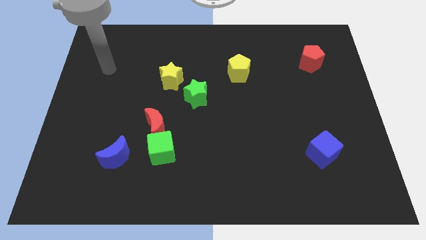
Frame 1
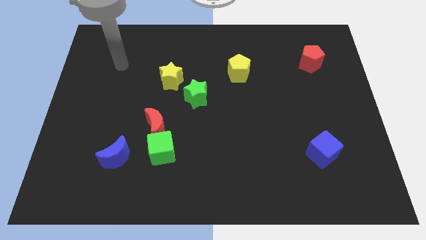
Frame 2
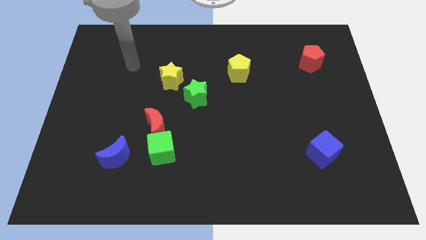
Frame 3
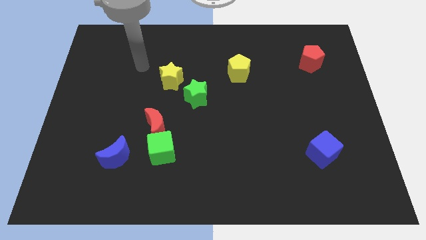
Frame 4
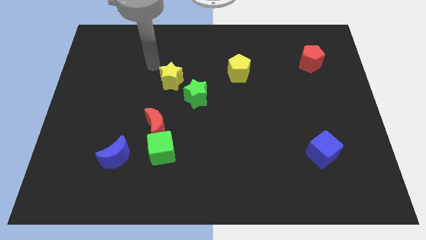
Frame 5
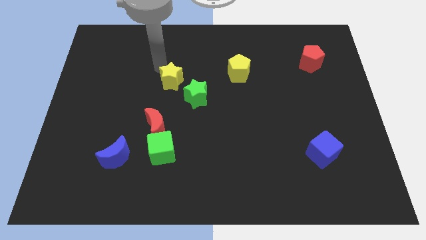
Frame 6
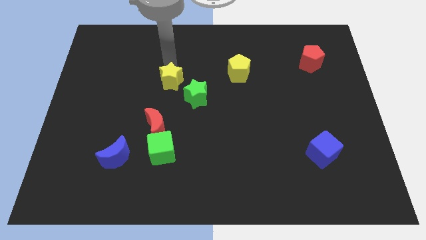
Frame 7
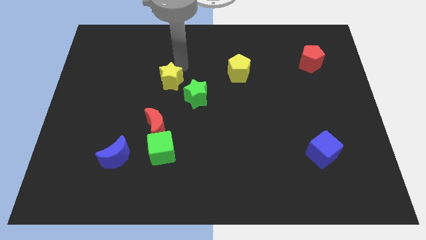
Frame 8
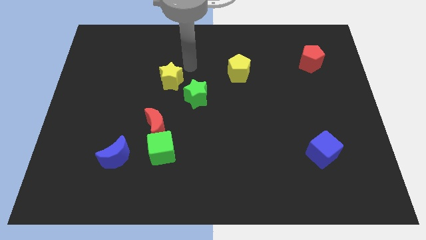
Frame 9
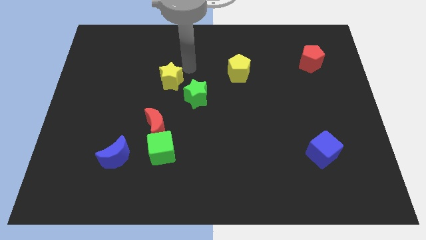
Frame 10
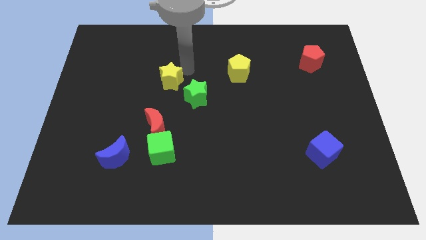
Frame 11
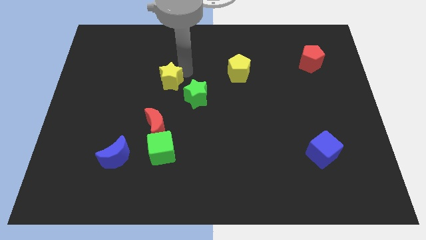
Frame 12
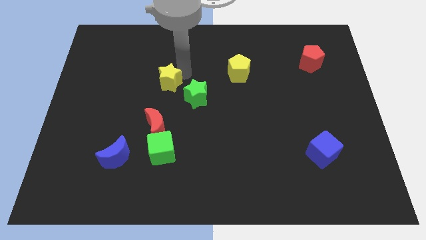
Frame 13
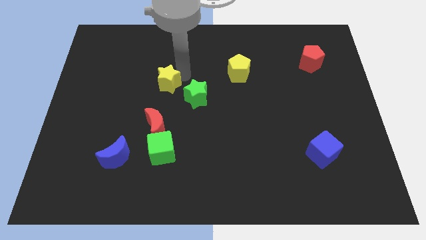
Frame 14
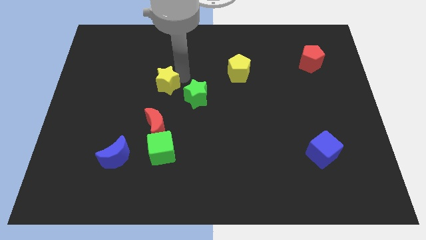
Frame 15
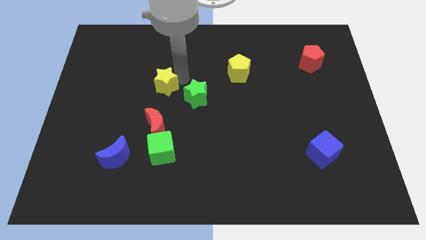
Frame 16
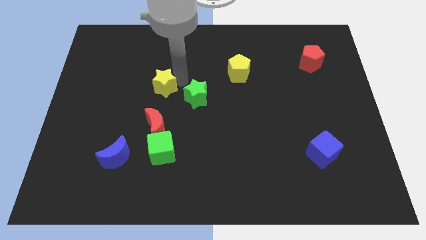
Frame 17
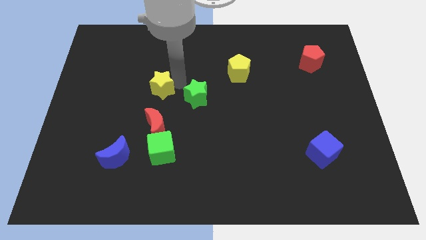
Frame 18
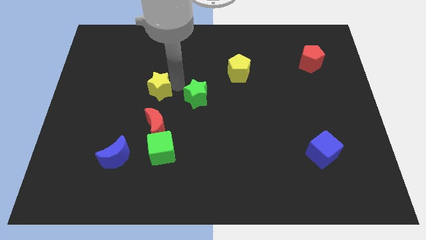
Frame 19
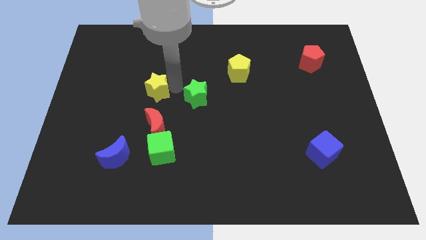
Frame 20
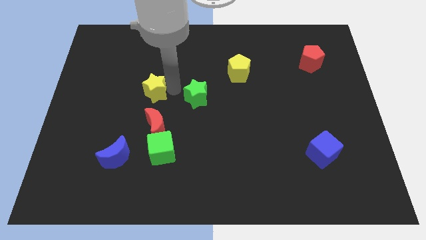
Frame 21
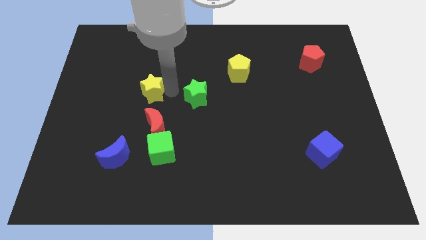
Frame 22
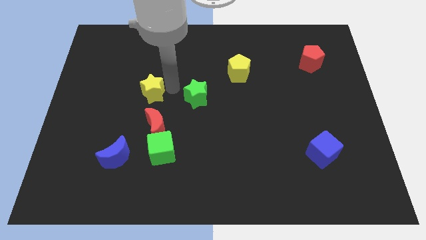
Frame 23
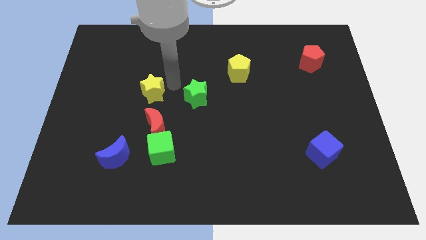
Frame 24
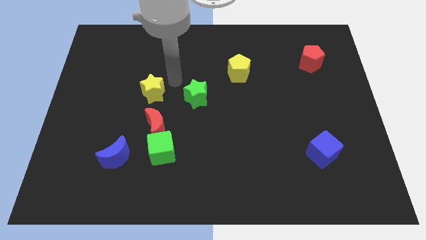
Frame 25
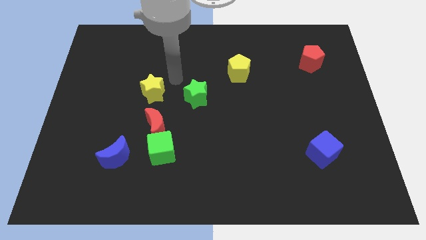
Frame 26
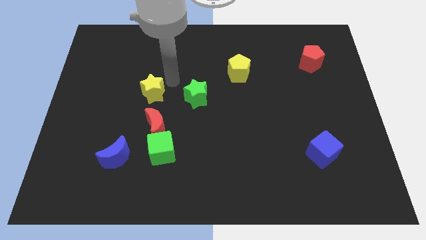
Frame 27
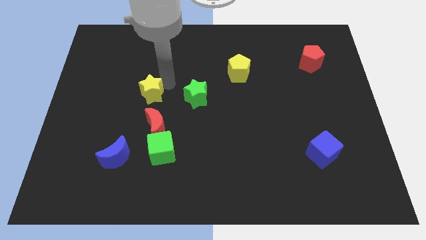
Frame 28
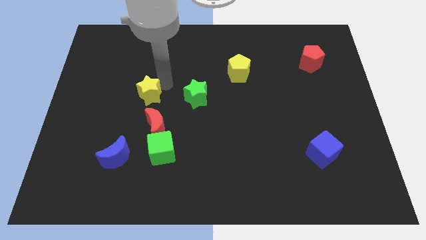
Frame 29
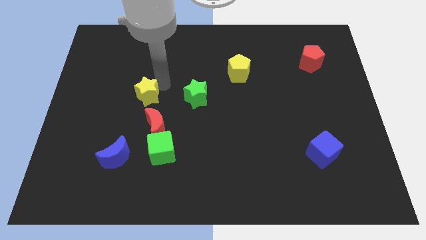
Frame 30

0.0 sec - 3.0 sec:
move the yellow star slightly downwards and then to the left

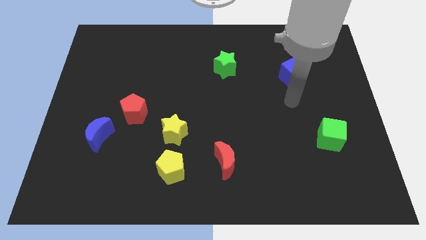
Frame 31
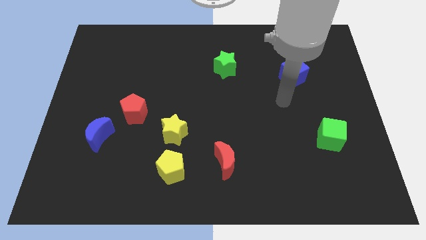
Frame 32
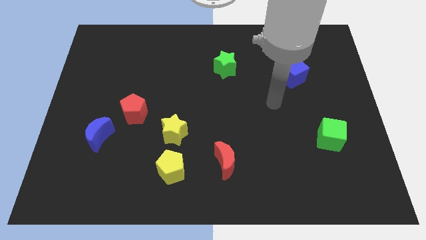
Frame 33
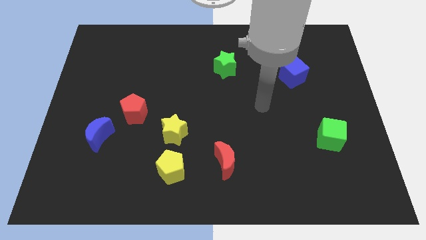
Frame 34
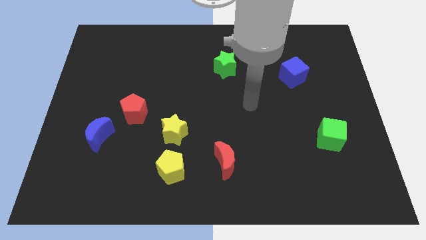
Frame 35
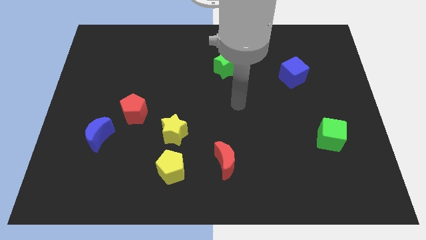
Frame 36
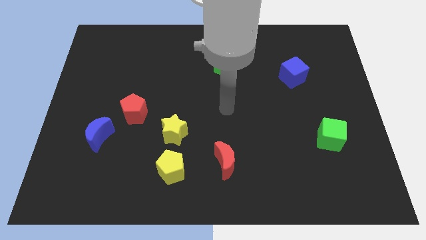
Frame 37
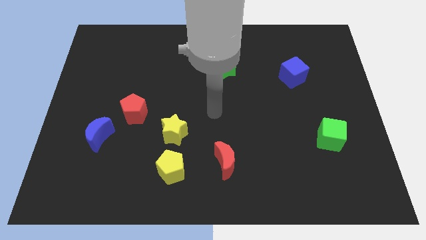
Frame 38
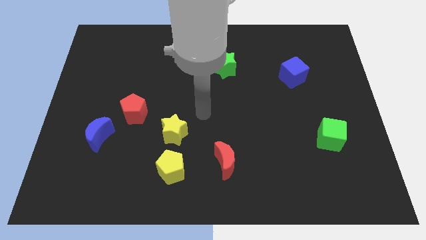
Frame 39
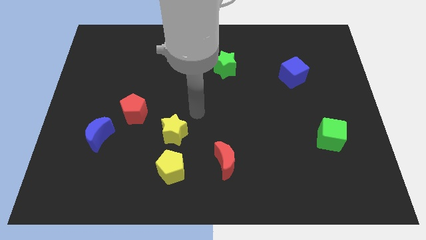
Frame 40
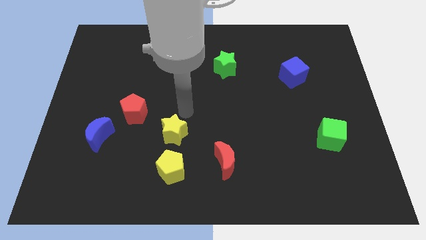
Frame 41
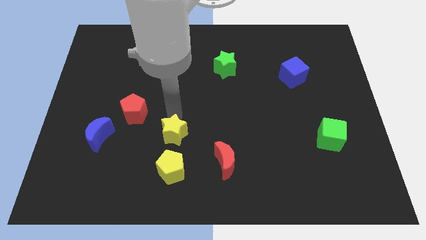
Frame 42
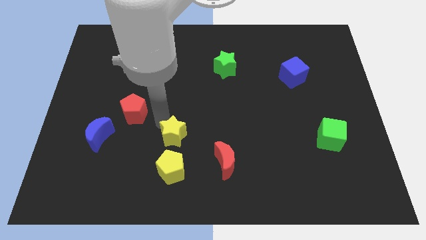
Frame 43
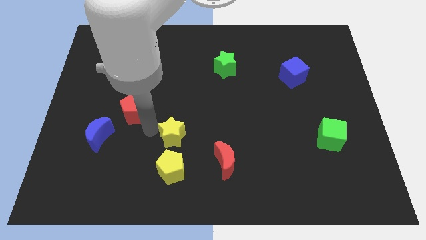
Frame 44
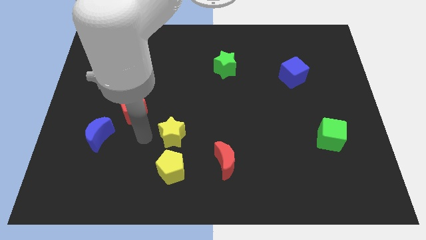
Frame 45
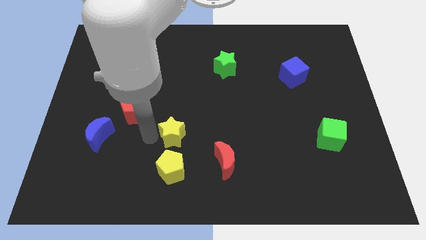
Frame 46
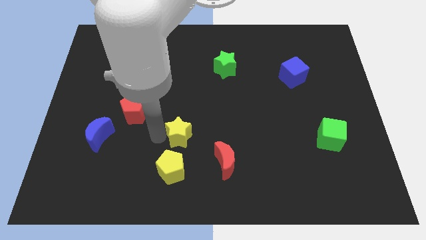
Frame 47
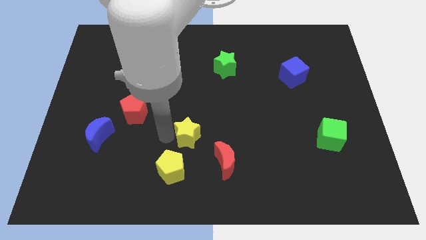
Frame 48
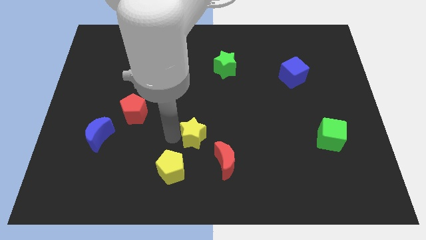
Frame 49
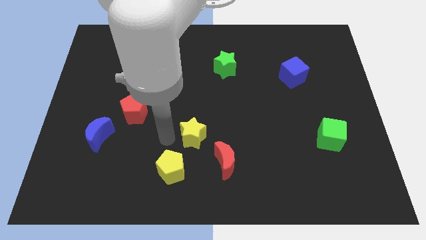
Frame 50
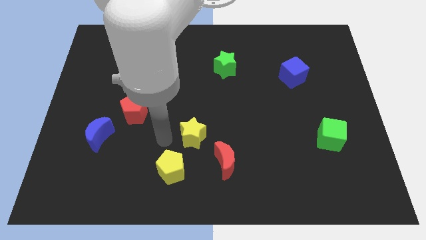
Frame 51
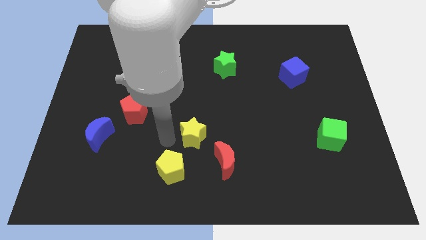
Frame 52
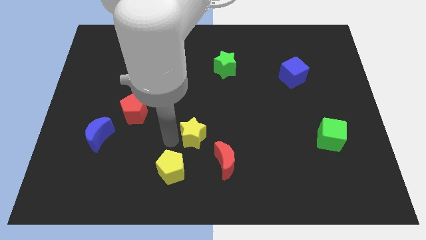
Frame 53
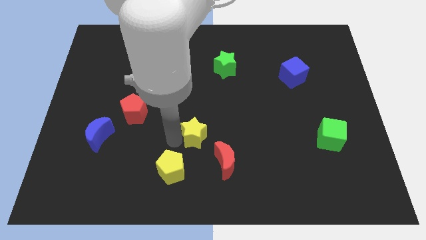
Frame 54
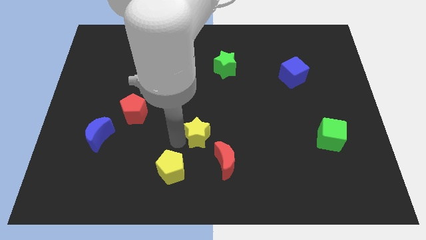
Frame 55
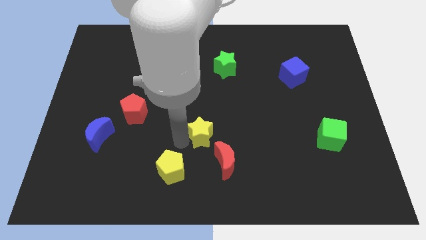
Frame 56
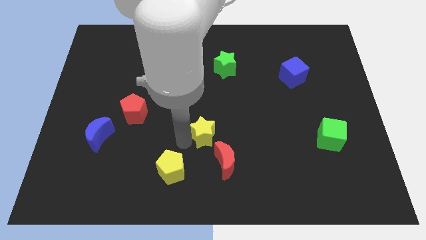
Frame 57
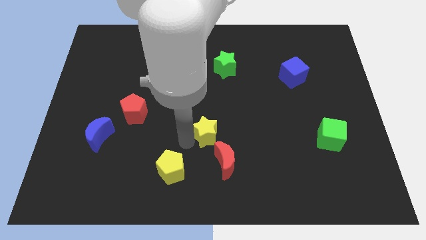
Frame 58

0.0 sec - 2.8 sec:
push the yellow star a little to the right

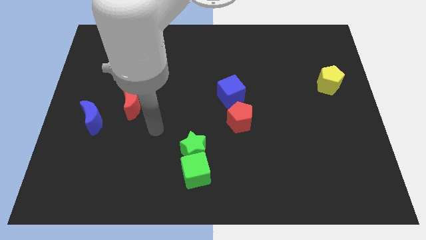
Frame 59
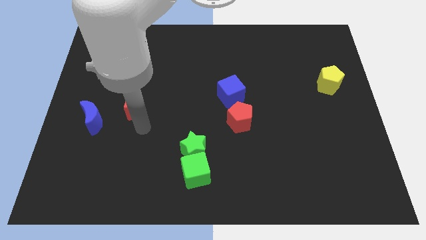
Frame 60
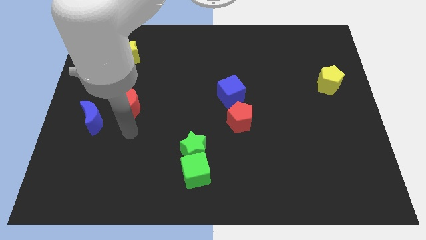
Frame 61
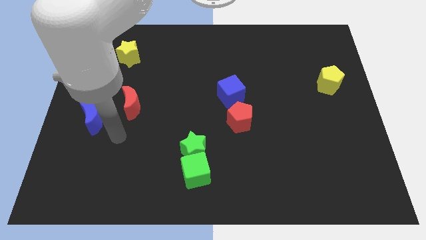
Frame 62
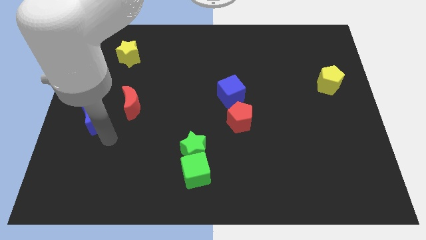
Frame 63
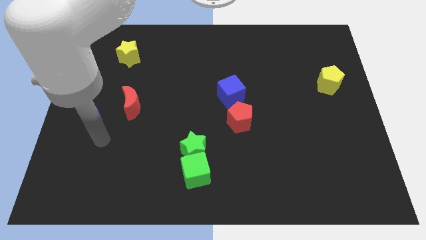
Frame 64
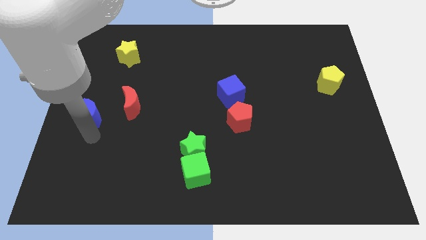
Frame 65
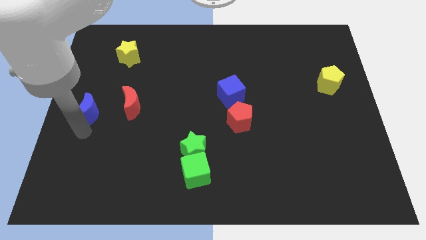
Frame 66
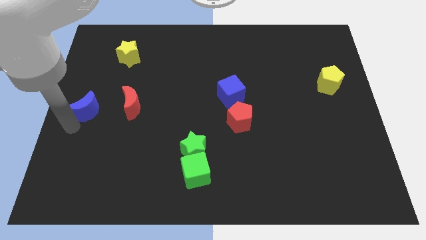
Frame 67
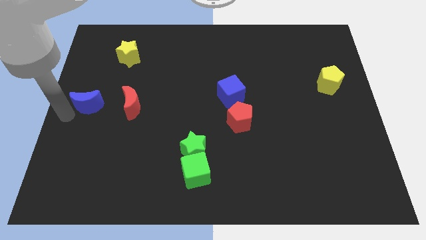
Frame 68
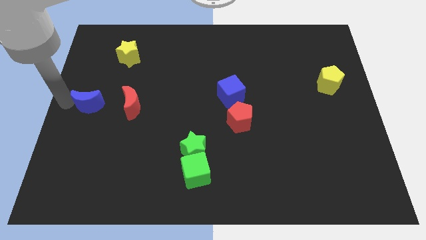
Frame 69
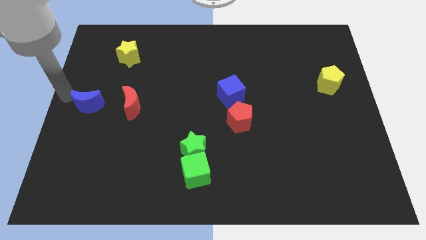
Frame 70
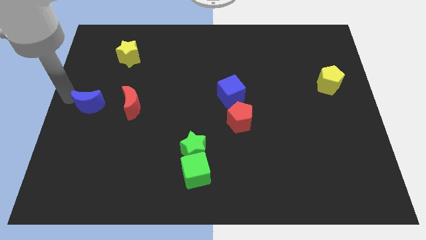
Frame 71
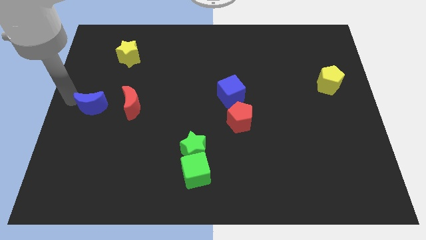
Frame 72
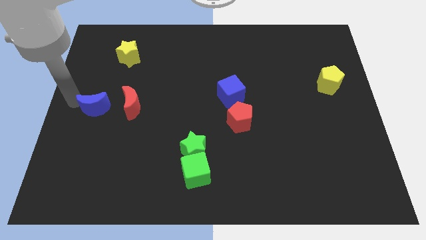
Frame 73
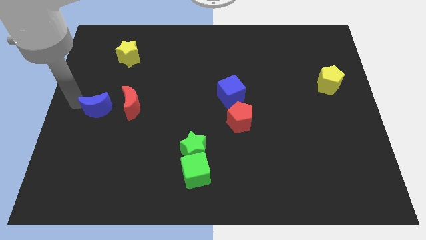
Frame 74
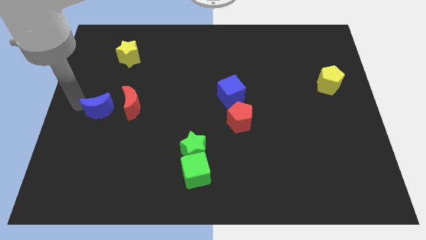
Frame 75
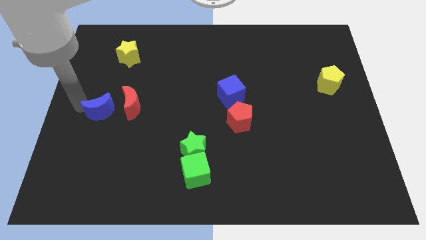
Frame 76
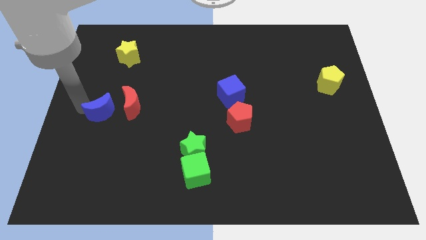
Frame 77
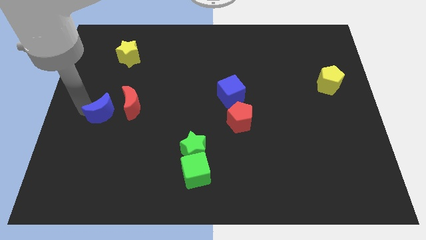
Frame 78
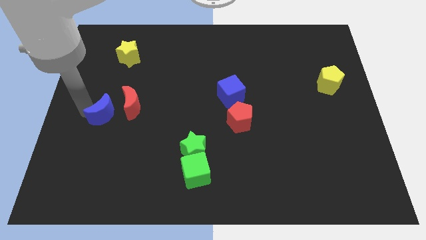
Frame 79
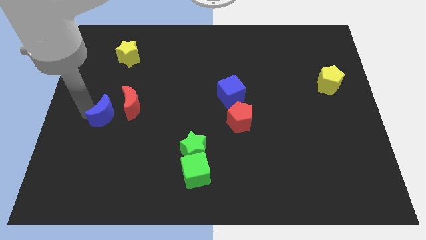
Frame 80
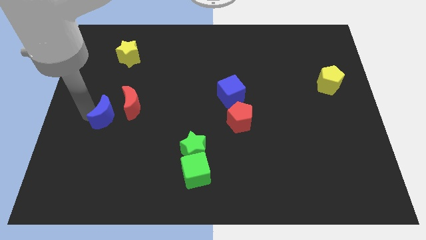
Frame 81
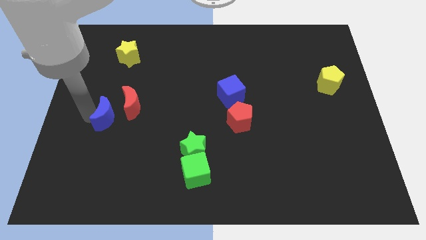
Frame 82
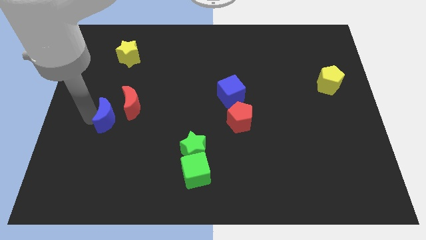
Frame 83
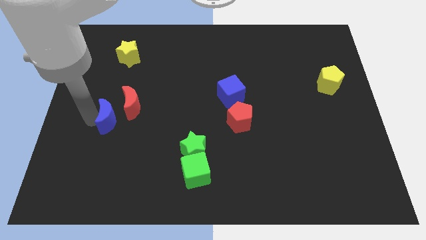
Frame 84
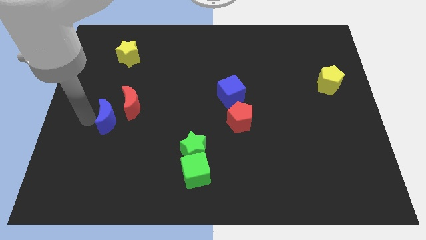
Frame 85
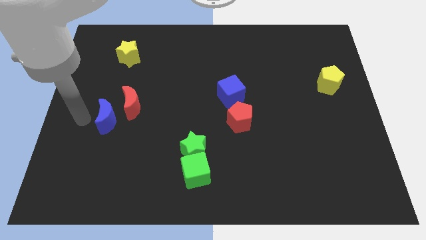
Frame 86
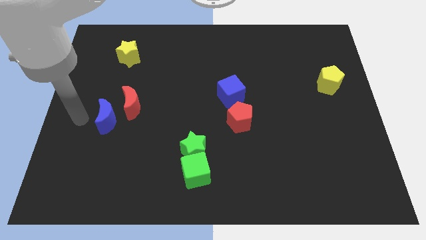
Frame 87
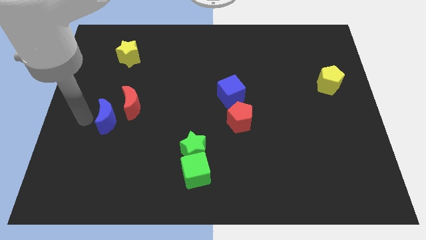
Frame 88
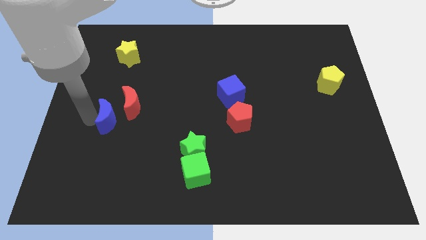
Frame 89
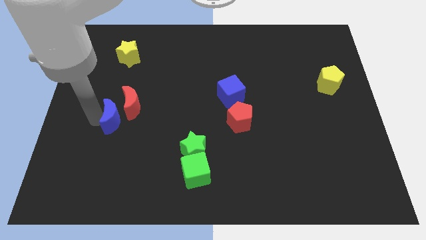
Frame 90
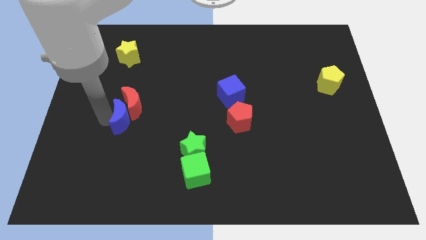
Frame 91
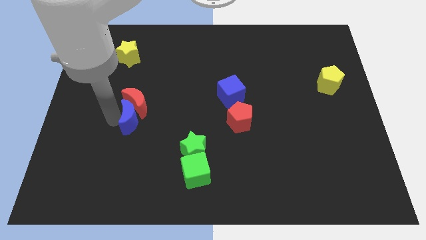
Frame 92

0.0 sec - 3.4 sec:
slightly push the blue moon right
